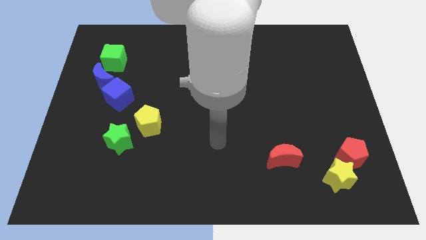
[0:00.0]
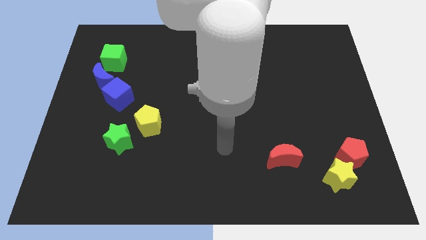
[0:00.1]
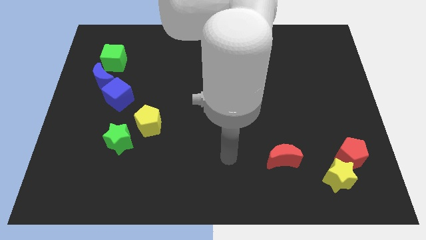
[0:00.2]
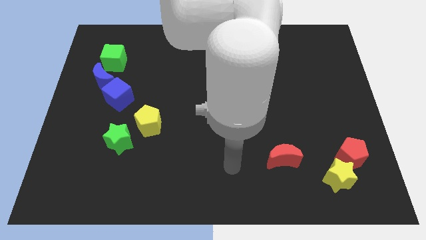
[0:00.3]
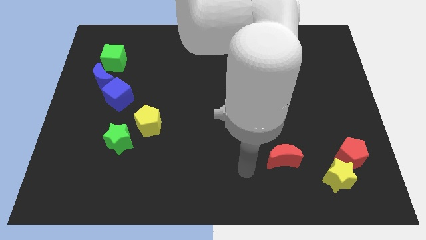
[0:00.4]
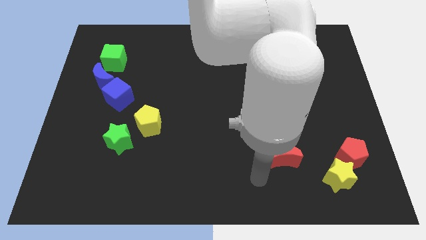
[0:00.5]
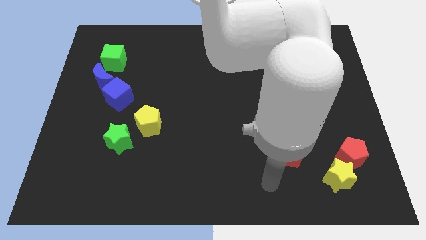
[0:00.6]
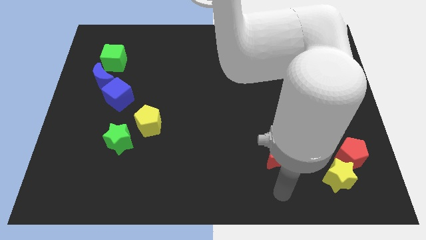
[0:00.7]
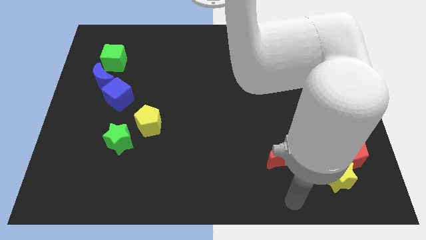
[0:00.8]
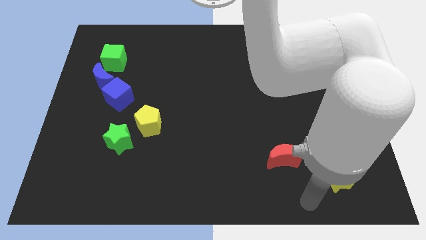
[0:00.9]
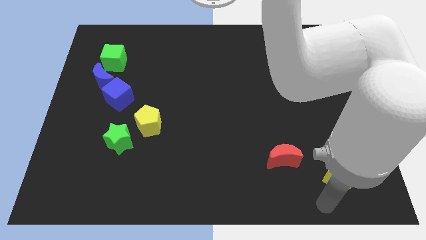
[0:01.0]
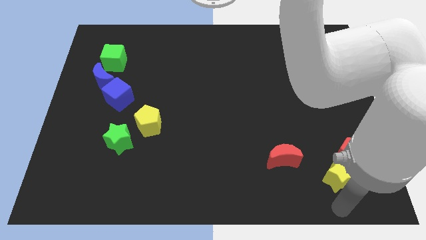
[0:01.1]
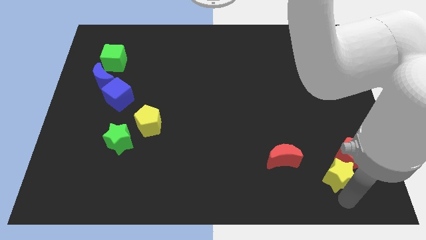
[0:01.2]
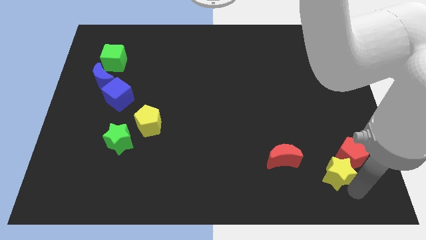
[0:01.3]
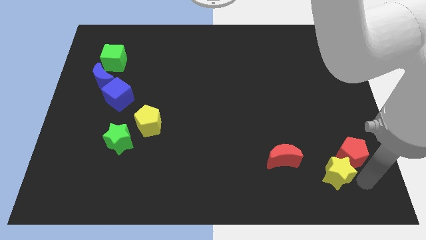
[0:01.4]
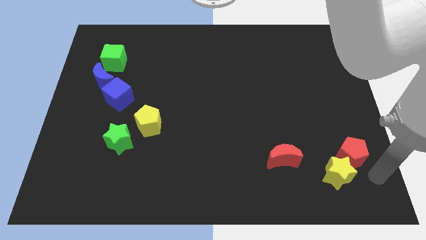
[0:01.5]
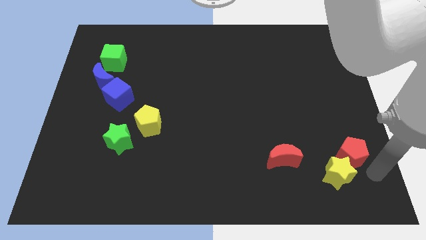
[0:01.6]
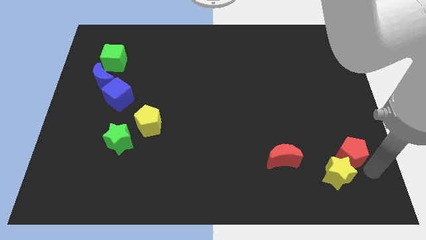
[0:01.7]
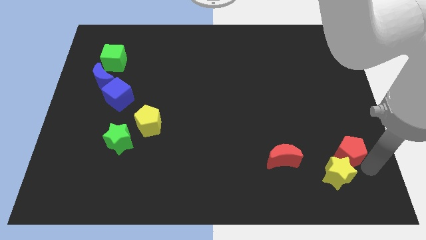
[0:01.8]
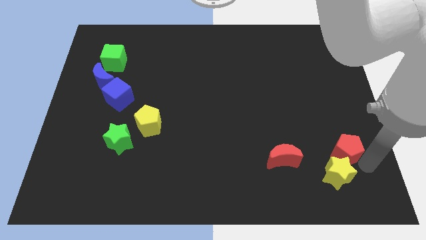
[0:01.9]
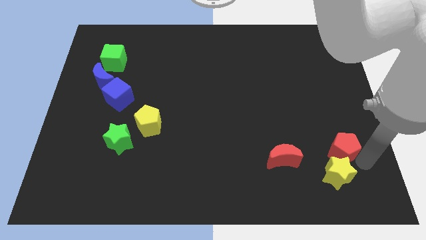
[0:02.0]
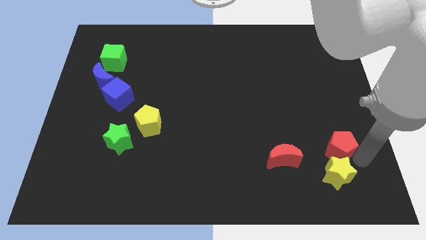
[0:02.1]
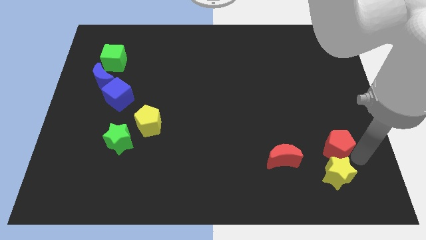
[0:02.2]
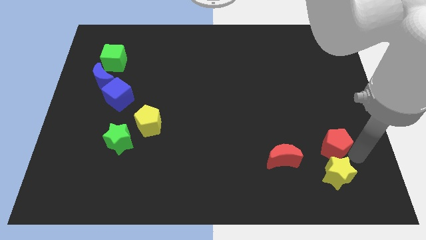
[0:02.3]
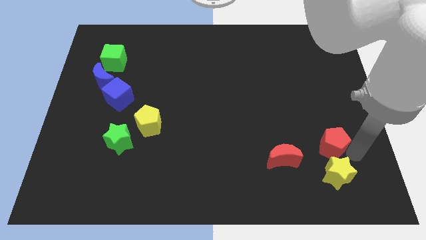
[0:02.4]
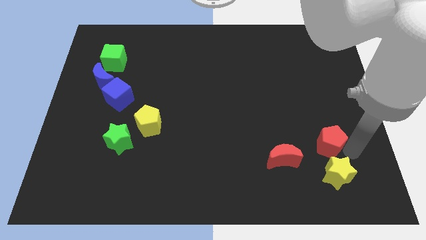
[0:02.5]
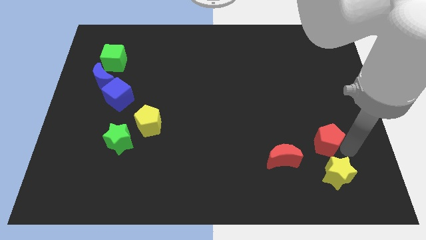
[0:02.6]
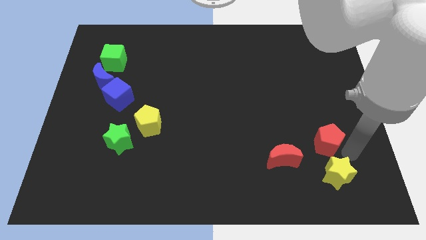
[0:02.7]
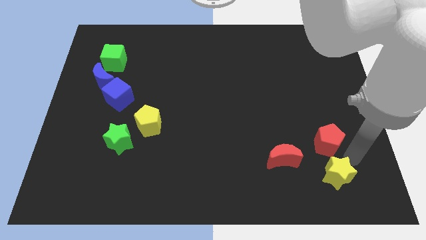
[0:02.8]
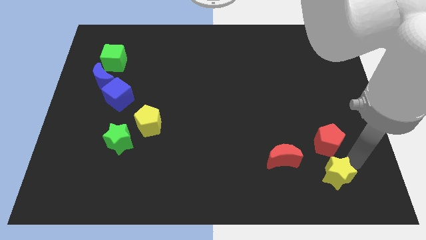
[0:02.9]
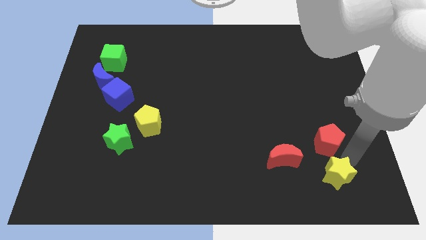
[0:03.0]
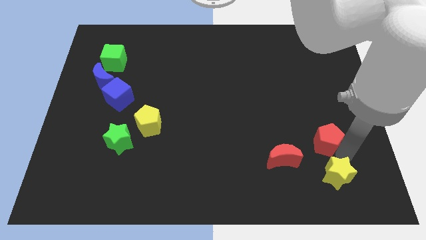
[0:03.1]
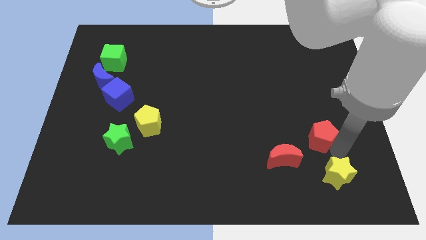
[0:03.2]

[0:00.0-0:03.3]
move the red pentagon a bit upwards and then left

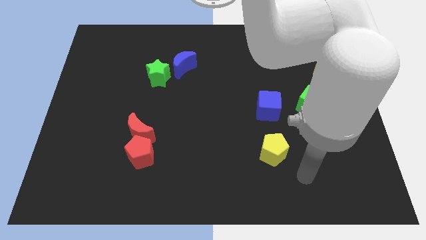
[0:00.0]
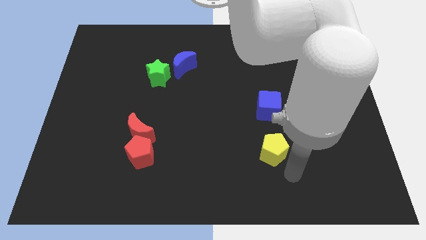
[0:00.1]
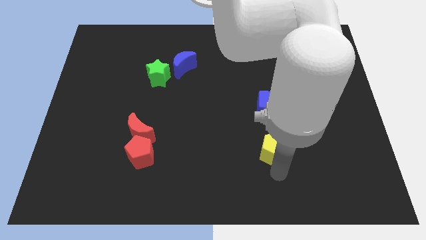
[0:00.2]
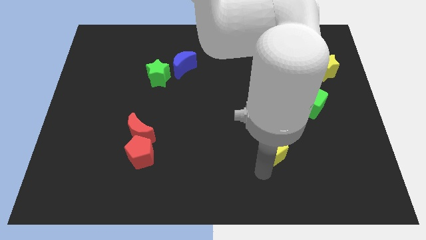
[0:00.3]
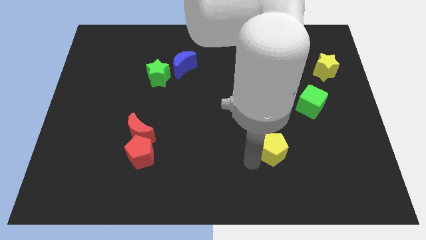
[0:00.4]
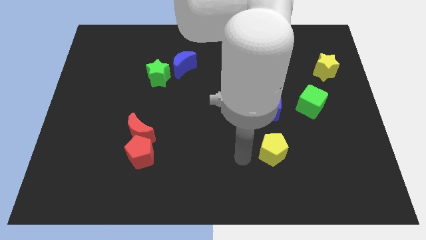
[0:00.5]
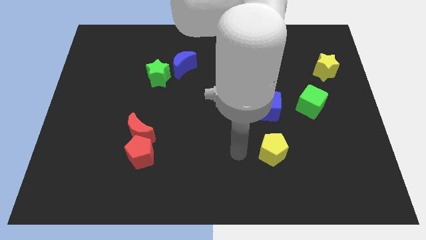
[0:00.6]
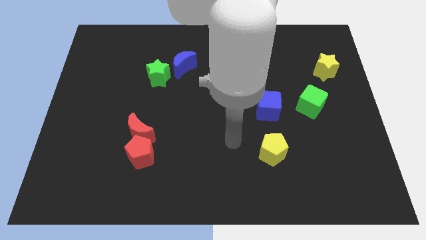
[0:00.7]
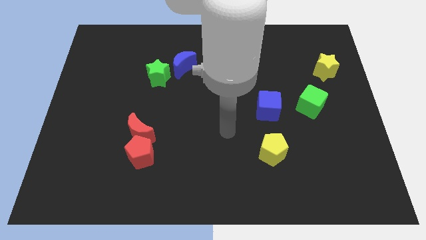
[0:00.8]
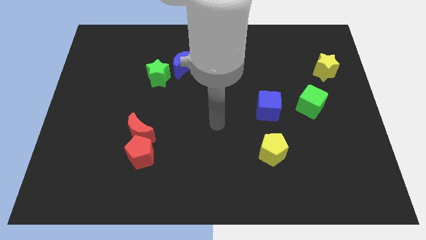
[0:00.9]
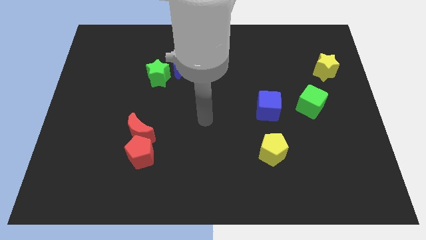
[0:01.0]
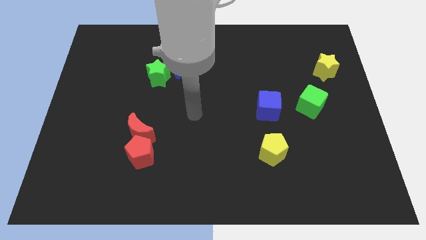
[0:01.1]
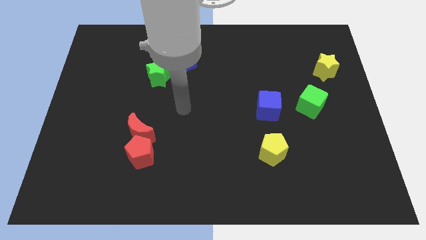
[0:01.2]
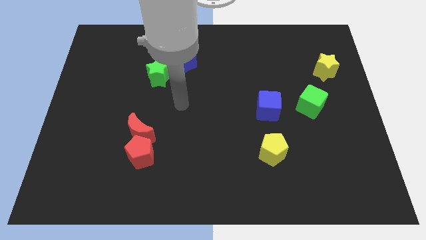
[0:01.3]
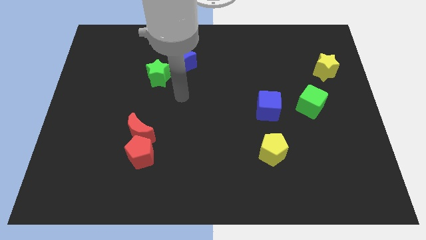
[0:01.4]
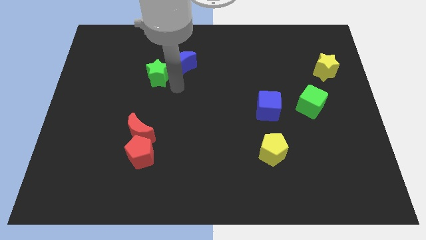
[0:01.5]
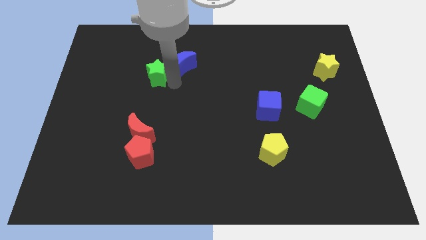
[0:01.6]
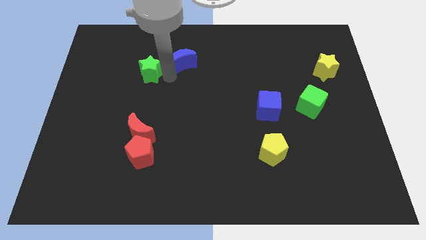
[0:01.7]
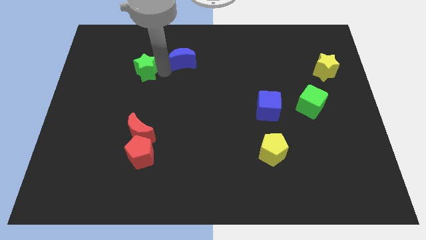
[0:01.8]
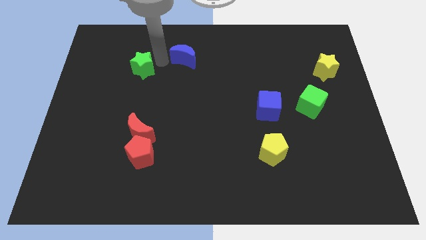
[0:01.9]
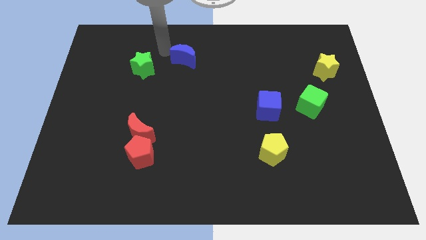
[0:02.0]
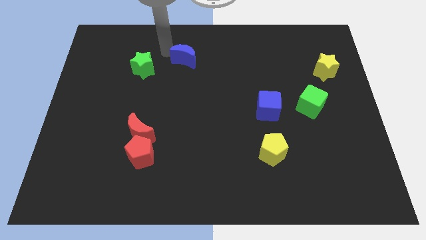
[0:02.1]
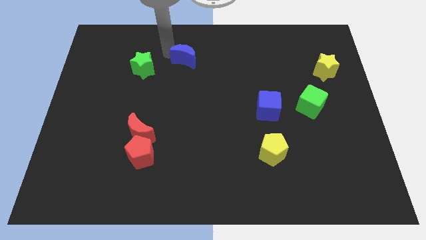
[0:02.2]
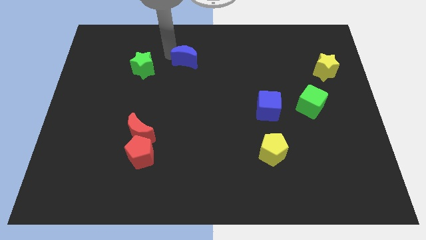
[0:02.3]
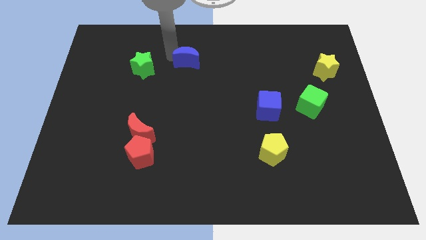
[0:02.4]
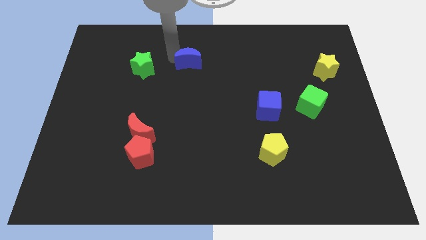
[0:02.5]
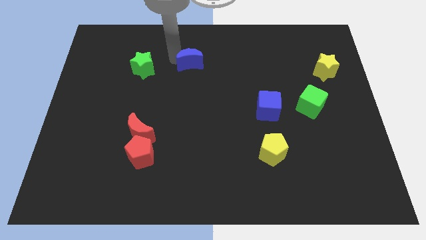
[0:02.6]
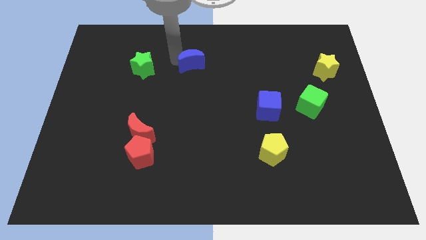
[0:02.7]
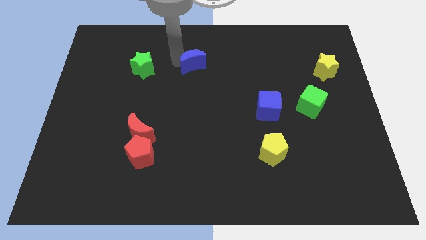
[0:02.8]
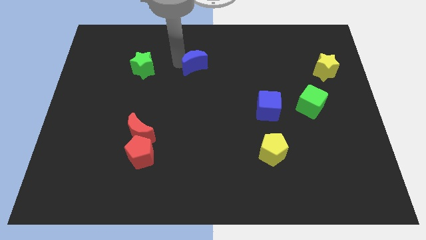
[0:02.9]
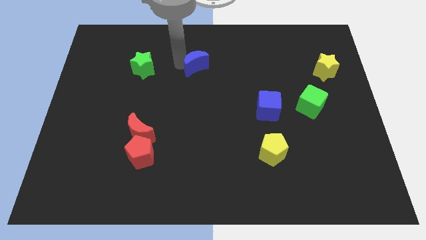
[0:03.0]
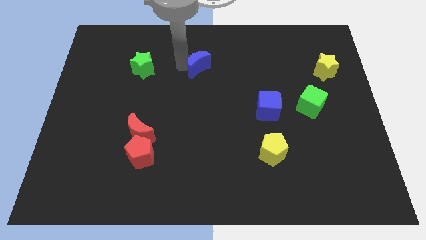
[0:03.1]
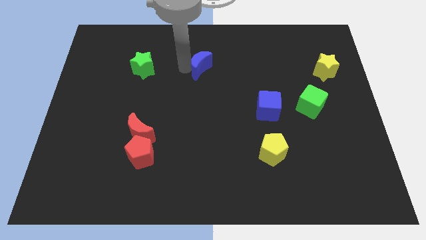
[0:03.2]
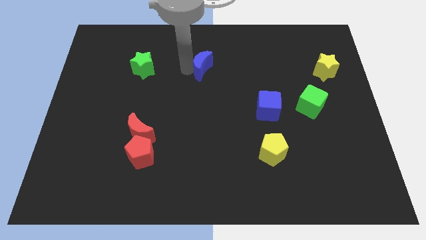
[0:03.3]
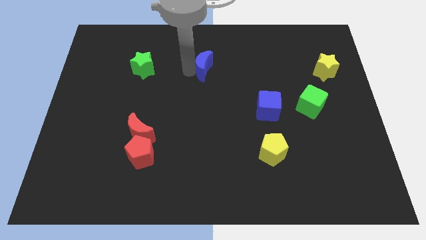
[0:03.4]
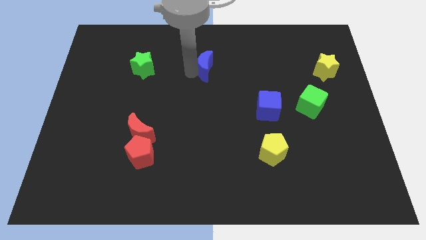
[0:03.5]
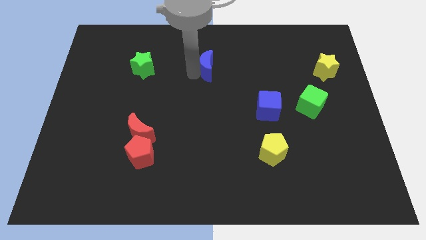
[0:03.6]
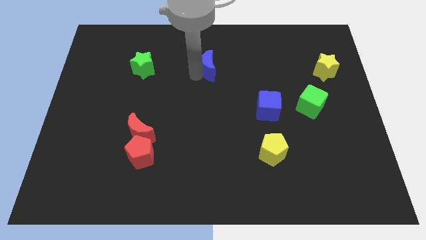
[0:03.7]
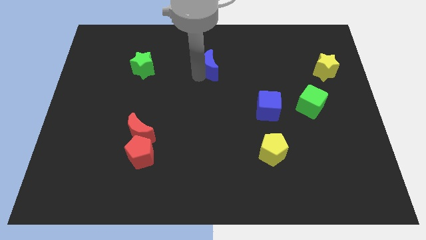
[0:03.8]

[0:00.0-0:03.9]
slightly slide the blue moon to the right

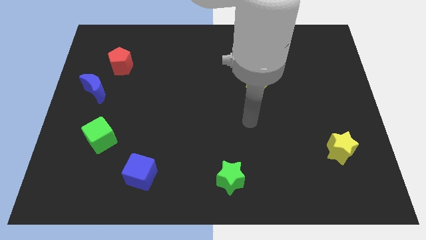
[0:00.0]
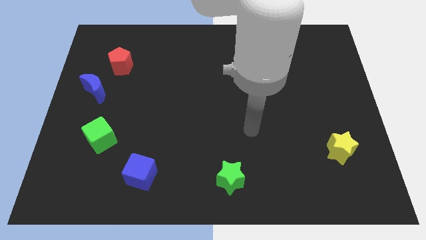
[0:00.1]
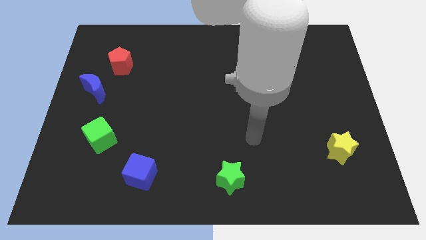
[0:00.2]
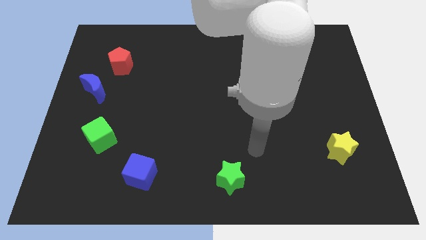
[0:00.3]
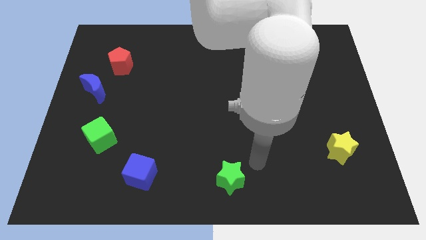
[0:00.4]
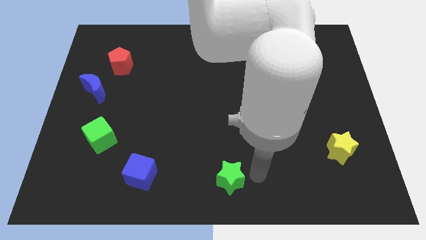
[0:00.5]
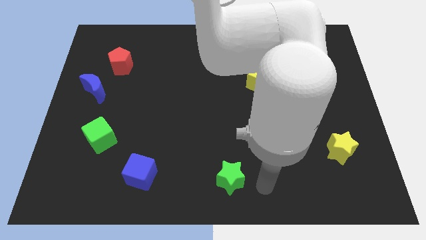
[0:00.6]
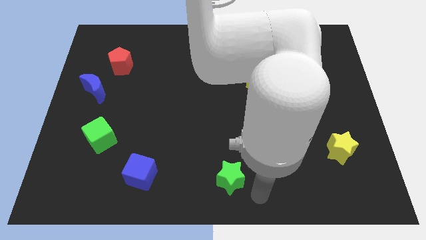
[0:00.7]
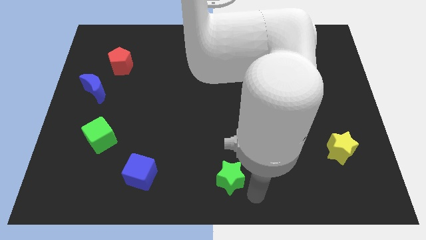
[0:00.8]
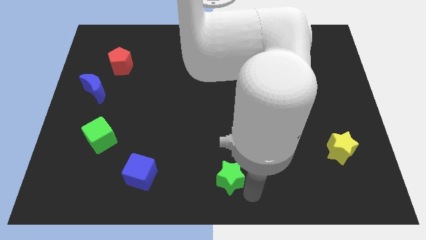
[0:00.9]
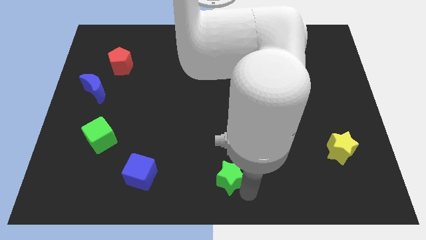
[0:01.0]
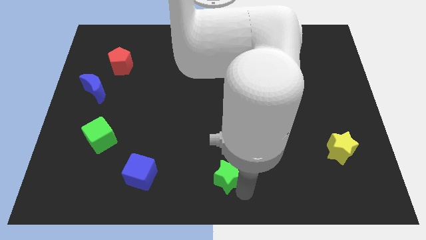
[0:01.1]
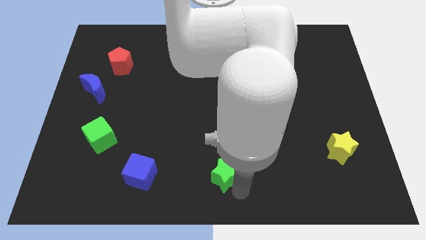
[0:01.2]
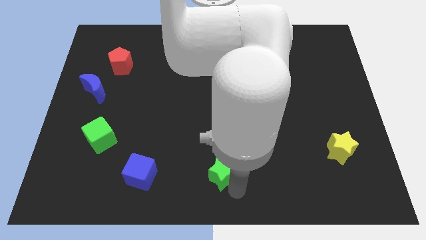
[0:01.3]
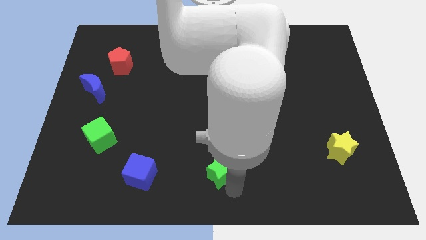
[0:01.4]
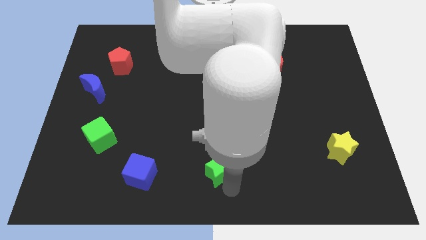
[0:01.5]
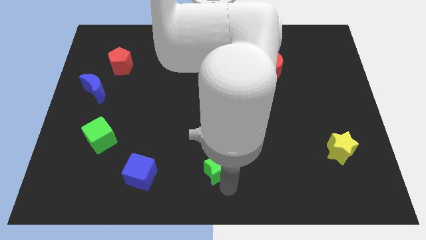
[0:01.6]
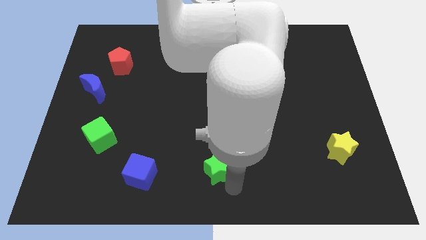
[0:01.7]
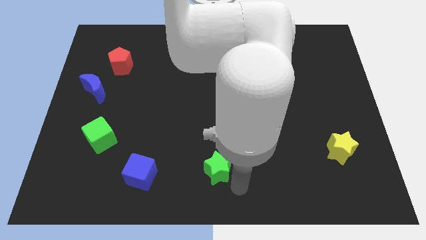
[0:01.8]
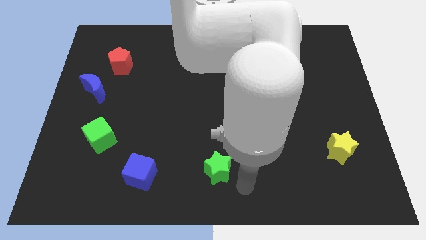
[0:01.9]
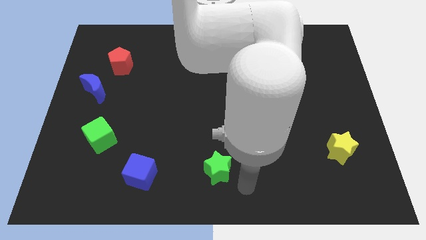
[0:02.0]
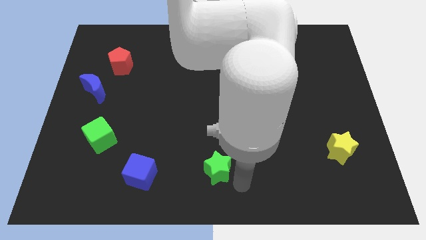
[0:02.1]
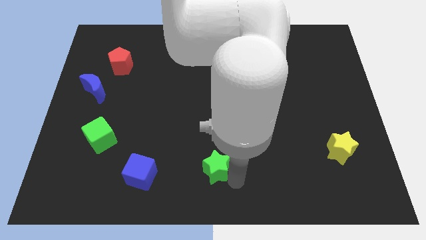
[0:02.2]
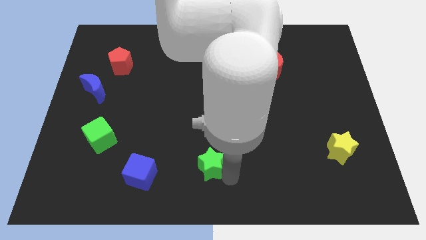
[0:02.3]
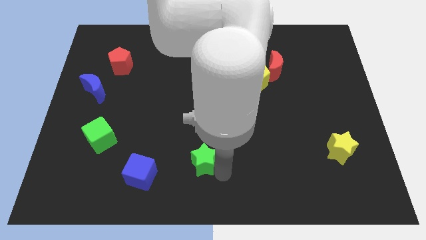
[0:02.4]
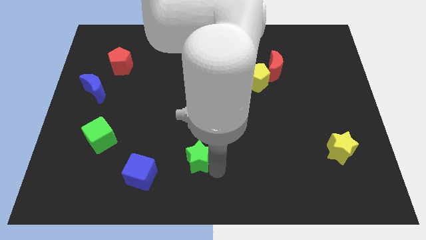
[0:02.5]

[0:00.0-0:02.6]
slightly slide the green star upwards and to the left
